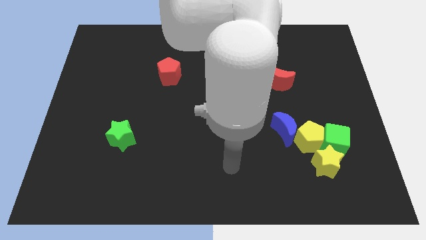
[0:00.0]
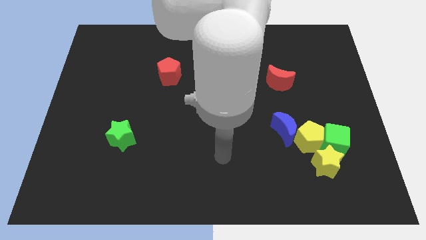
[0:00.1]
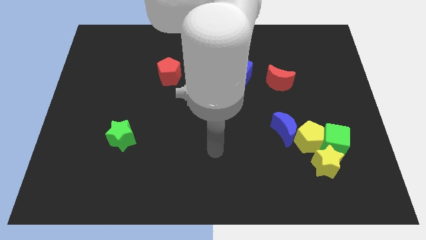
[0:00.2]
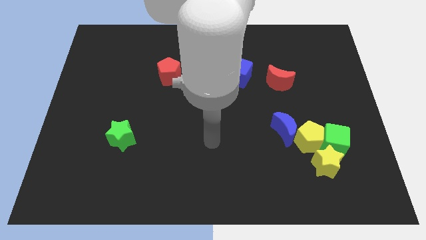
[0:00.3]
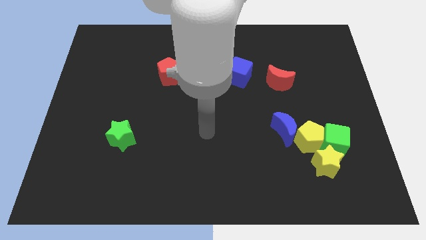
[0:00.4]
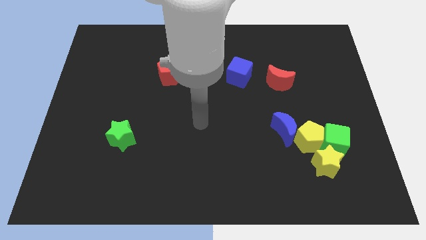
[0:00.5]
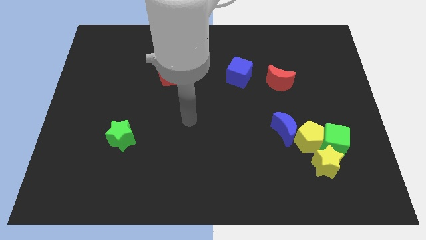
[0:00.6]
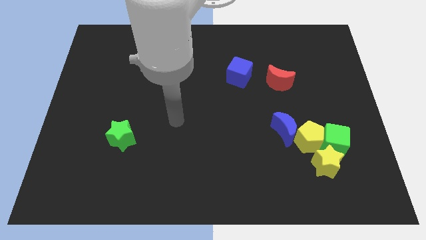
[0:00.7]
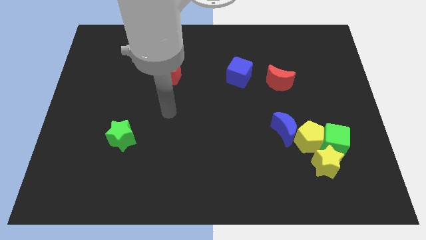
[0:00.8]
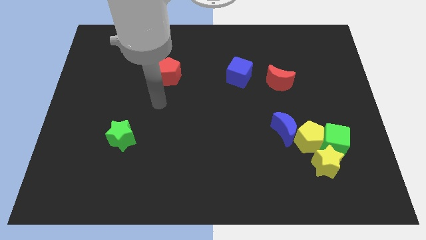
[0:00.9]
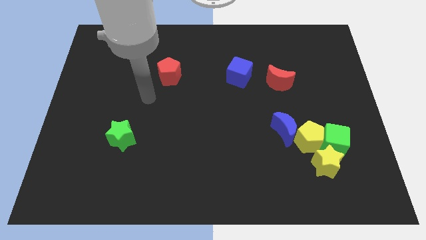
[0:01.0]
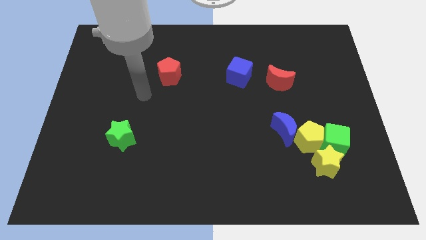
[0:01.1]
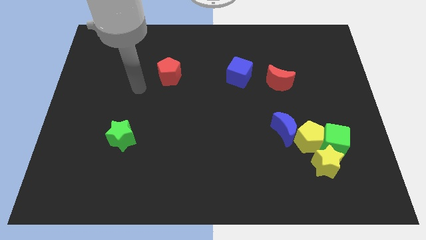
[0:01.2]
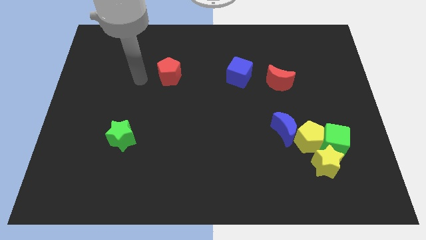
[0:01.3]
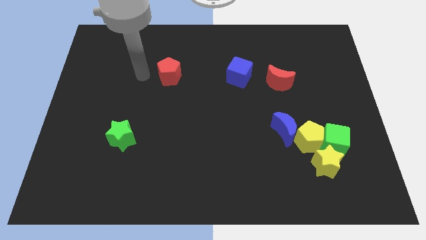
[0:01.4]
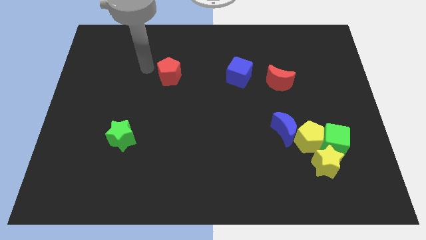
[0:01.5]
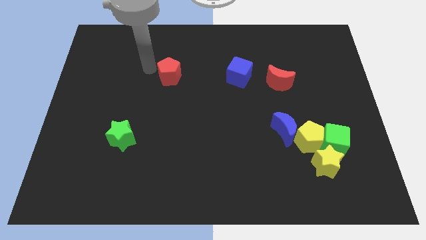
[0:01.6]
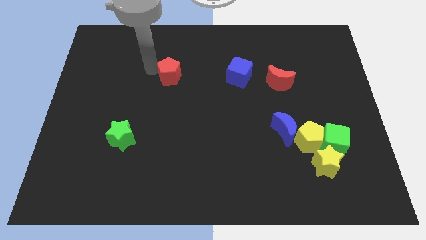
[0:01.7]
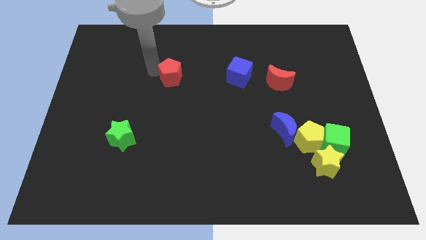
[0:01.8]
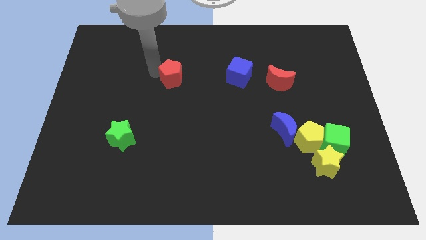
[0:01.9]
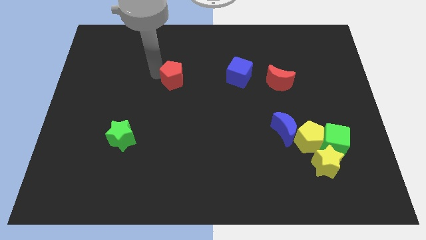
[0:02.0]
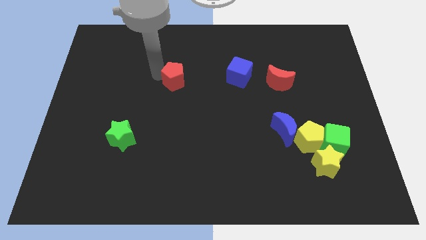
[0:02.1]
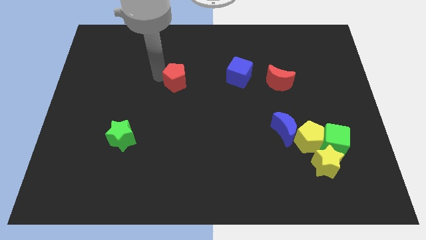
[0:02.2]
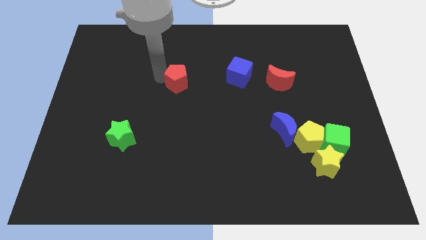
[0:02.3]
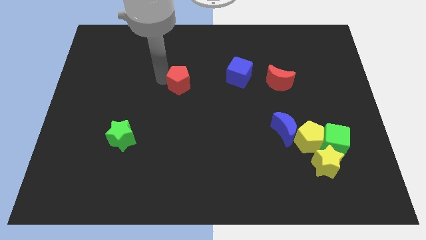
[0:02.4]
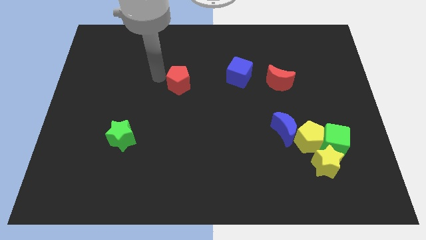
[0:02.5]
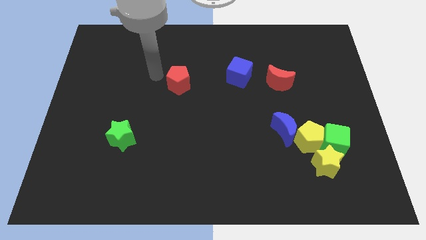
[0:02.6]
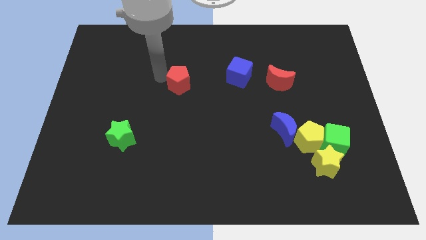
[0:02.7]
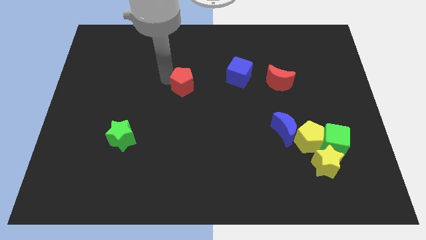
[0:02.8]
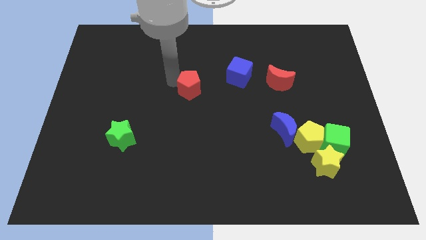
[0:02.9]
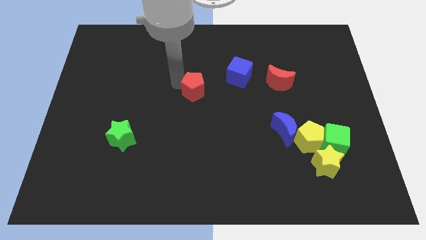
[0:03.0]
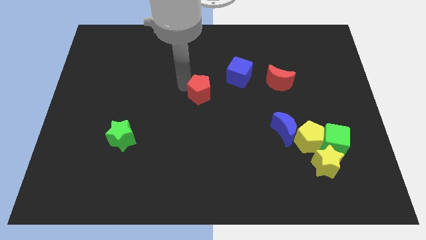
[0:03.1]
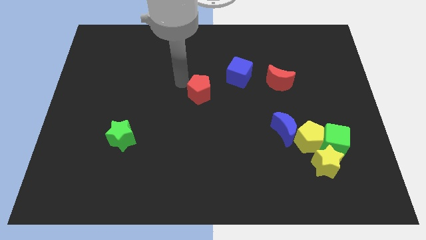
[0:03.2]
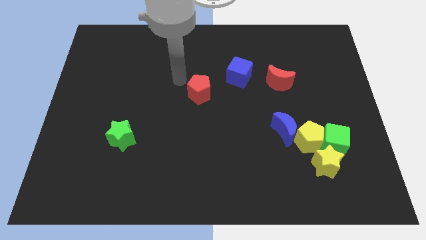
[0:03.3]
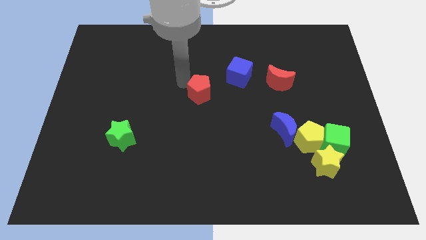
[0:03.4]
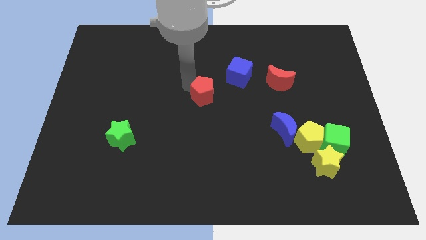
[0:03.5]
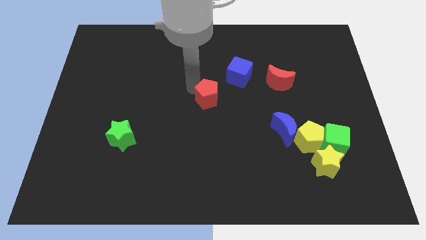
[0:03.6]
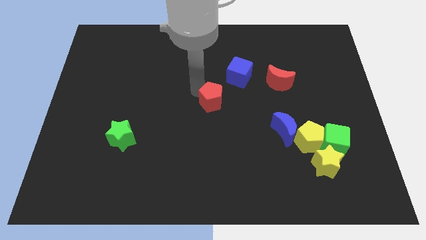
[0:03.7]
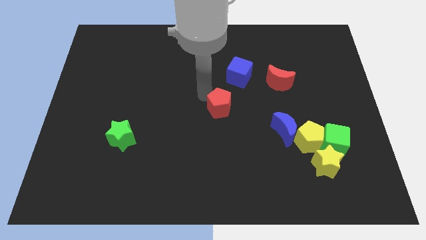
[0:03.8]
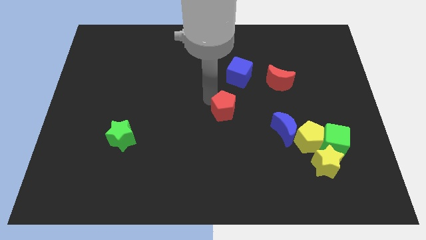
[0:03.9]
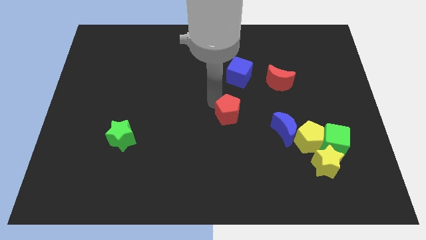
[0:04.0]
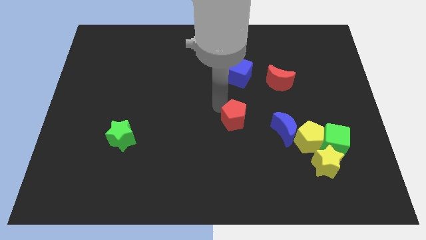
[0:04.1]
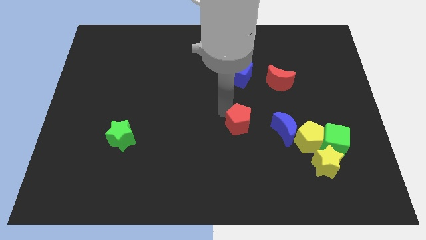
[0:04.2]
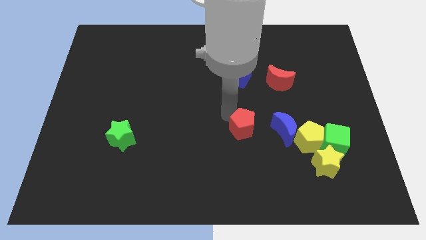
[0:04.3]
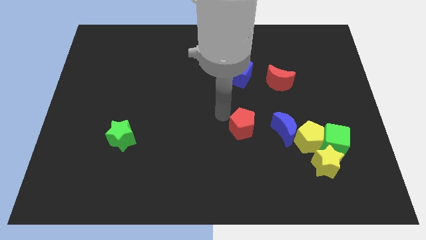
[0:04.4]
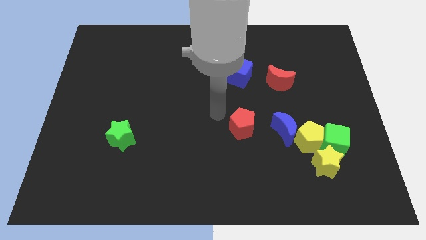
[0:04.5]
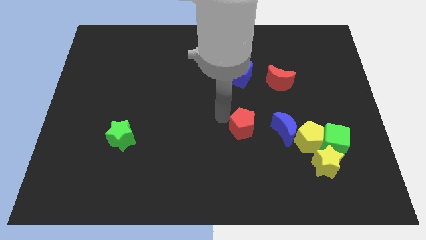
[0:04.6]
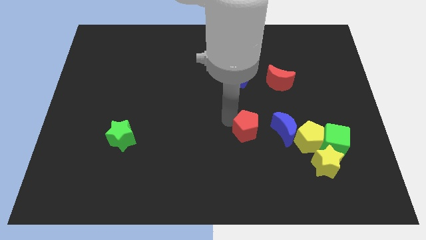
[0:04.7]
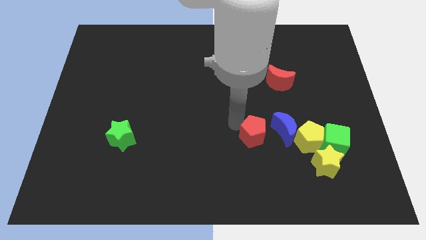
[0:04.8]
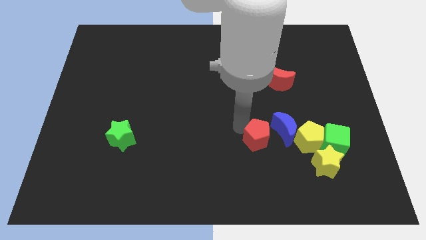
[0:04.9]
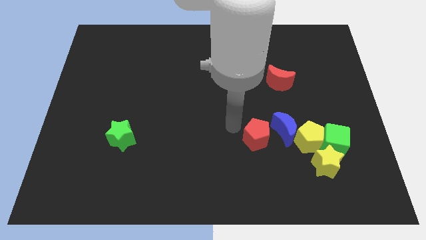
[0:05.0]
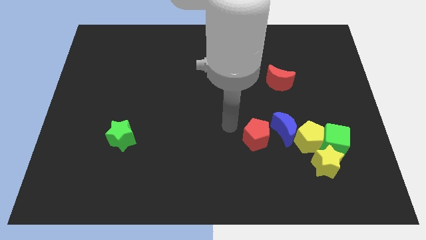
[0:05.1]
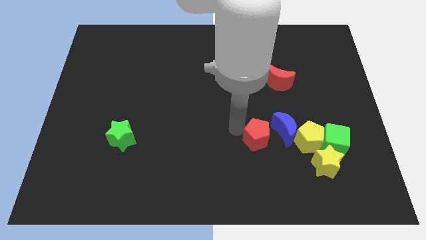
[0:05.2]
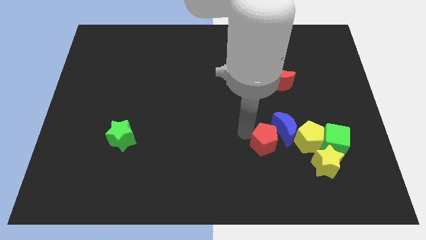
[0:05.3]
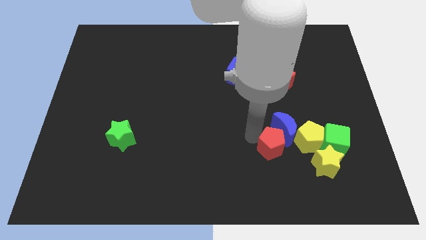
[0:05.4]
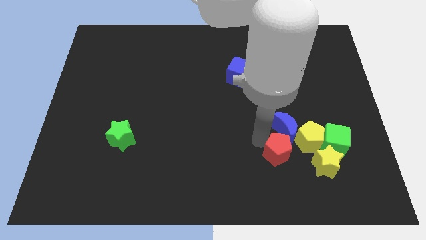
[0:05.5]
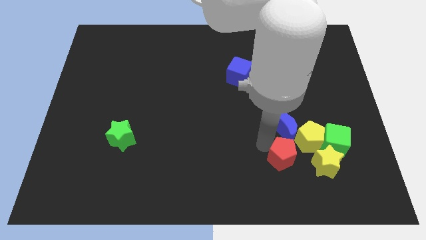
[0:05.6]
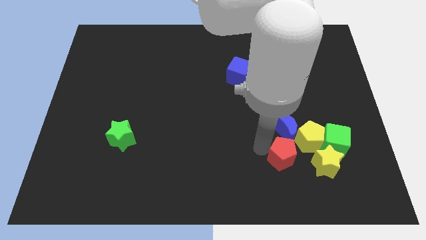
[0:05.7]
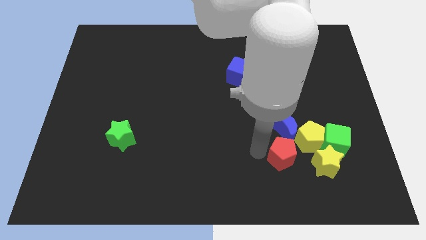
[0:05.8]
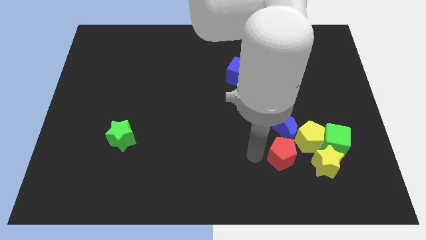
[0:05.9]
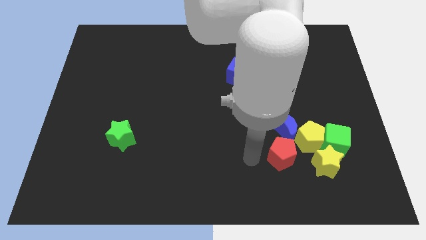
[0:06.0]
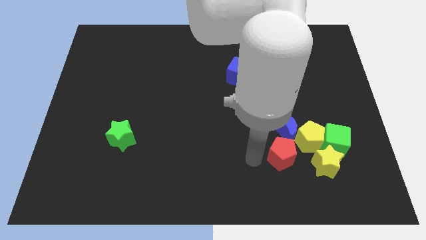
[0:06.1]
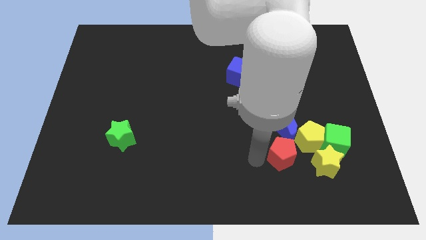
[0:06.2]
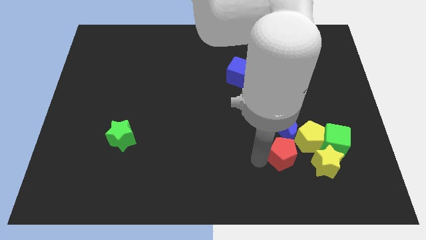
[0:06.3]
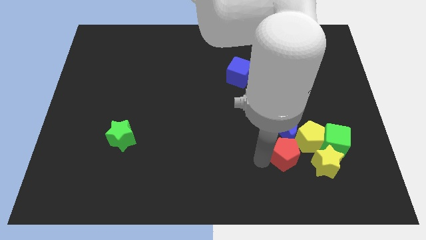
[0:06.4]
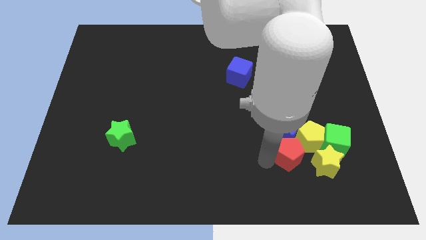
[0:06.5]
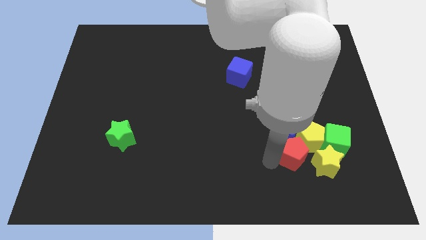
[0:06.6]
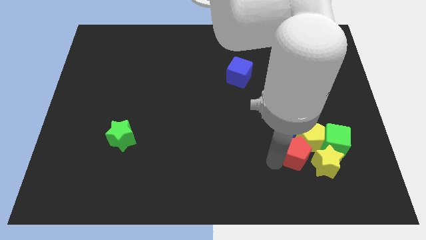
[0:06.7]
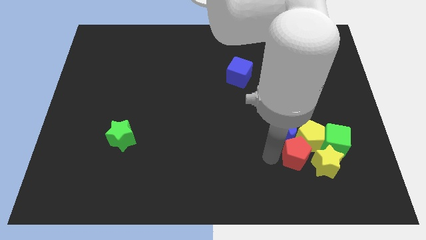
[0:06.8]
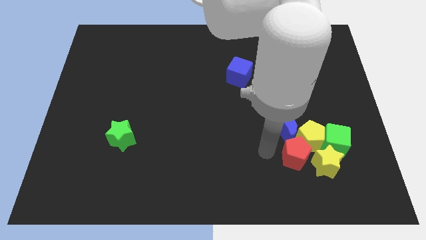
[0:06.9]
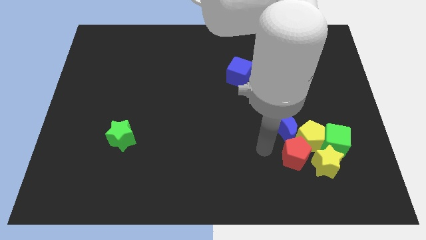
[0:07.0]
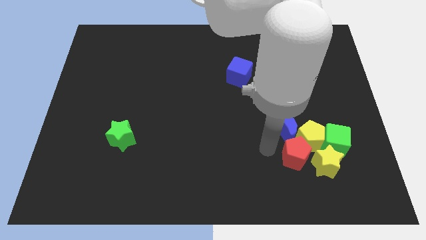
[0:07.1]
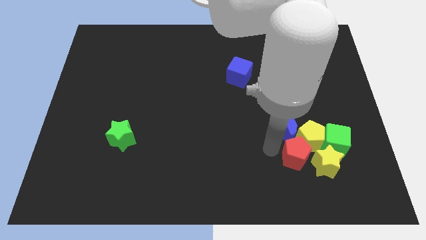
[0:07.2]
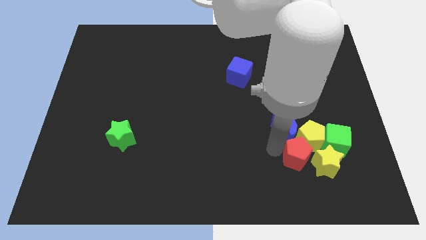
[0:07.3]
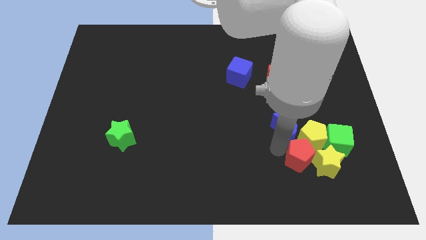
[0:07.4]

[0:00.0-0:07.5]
push the red pentagon next to the yellow star
